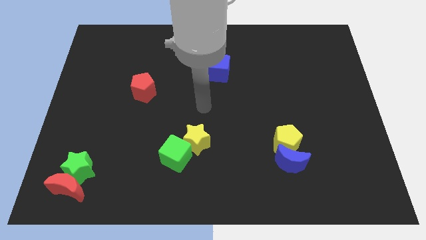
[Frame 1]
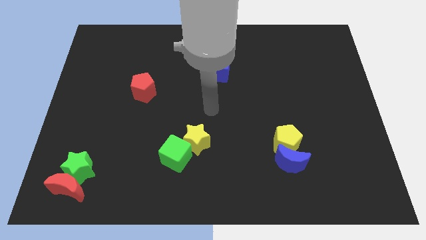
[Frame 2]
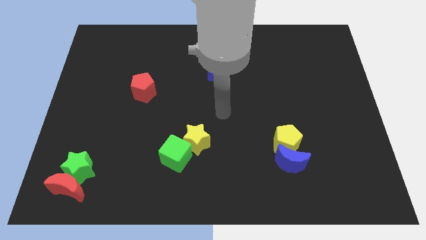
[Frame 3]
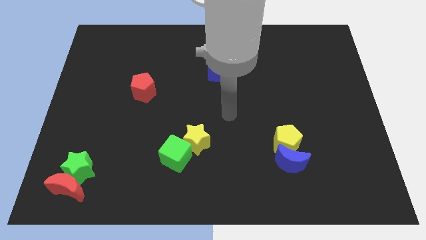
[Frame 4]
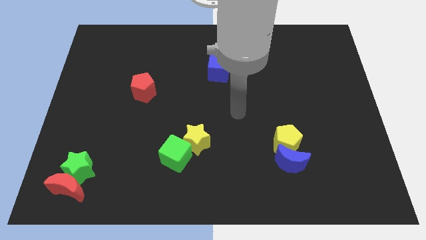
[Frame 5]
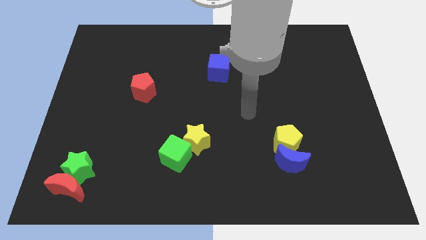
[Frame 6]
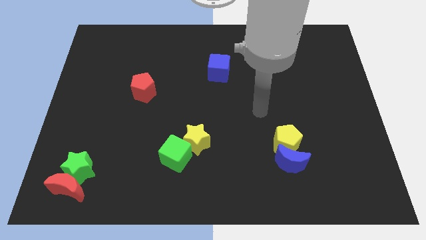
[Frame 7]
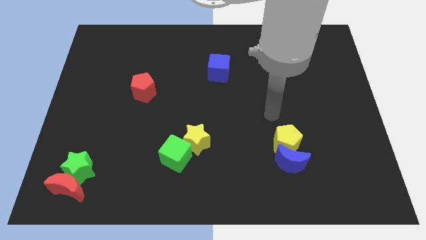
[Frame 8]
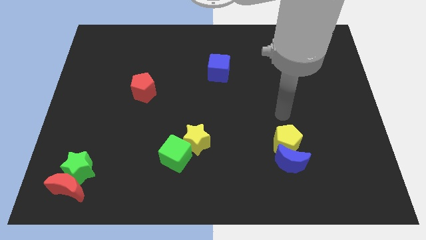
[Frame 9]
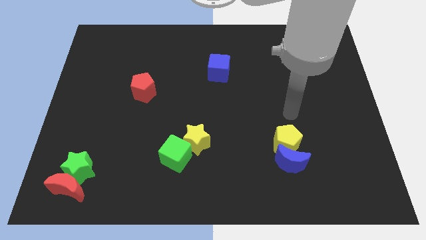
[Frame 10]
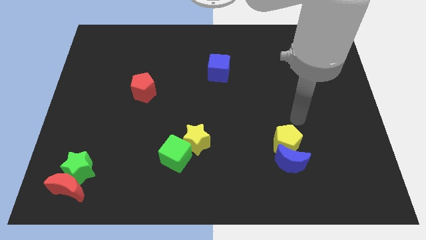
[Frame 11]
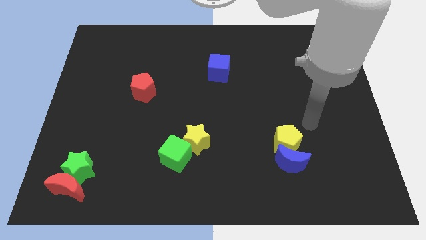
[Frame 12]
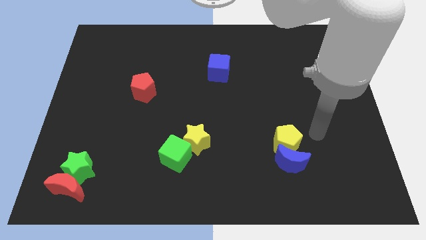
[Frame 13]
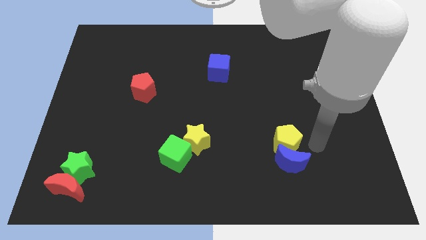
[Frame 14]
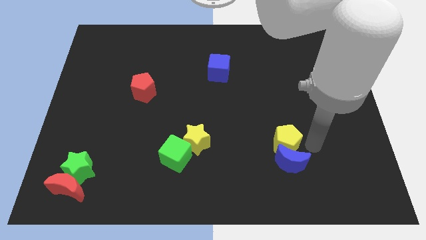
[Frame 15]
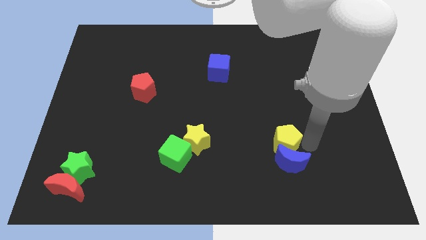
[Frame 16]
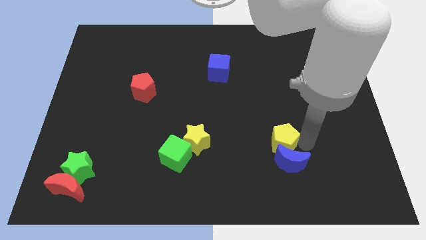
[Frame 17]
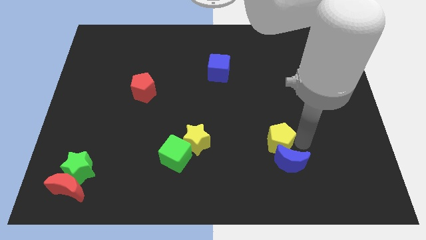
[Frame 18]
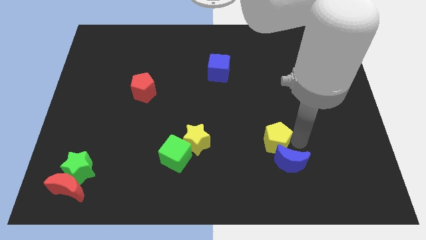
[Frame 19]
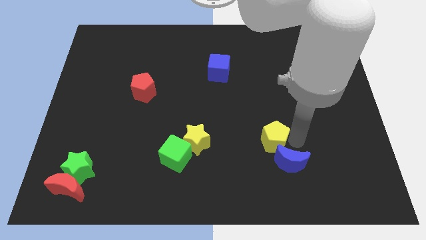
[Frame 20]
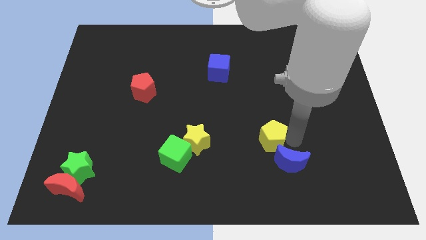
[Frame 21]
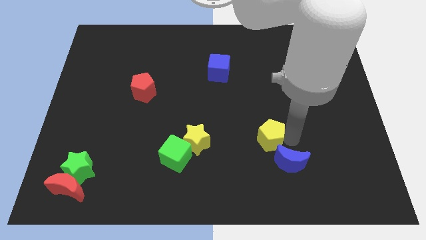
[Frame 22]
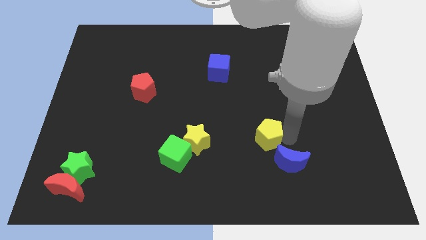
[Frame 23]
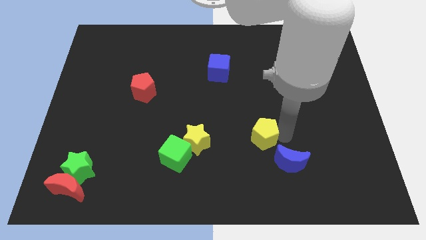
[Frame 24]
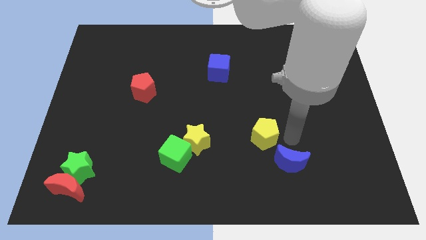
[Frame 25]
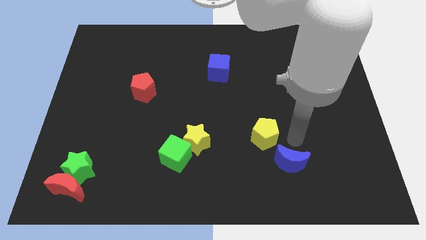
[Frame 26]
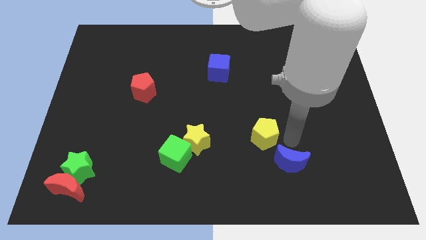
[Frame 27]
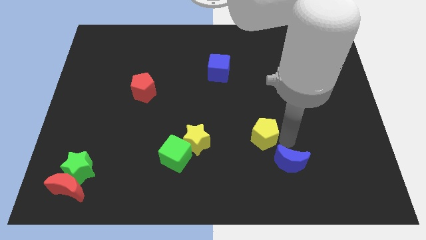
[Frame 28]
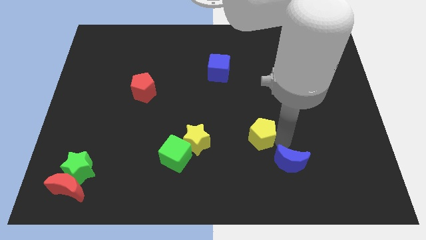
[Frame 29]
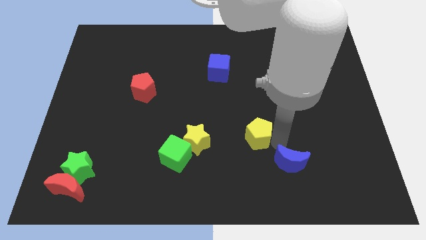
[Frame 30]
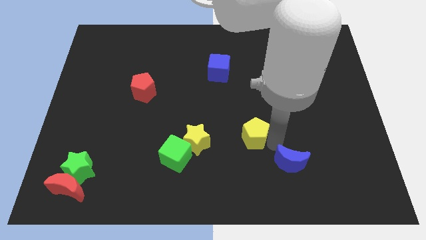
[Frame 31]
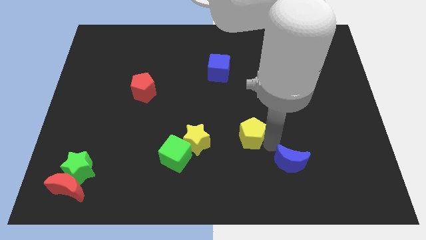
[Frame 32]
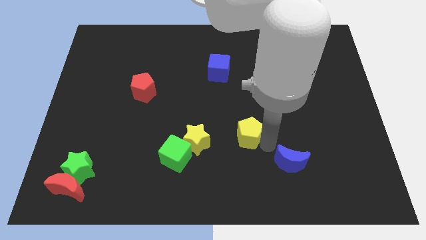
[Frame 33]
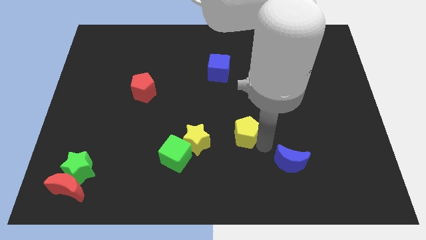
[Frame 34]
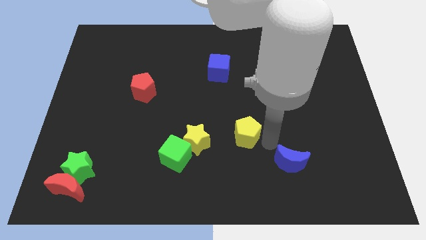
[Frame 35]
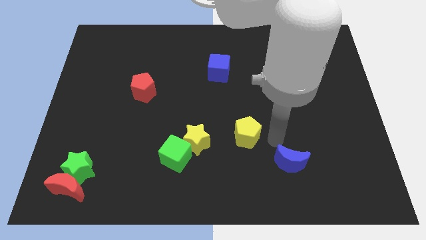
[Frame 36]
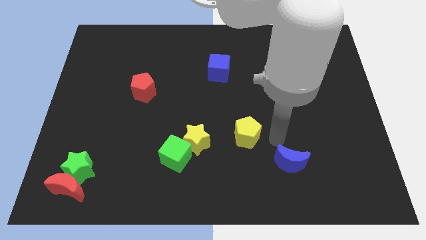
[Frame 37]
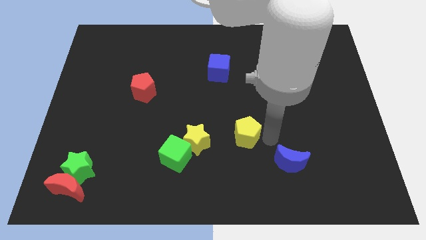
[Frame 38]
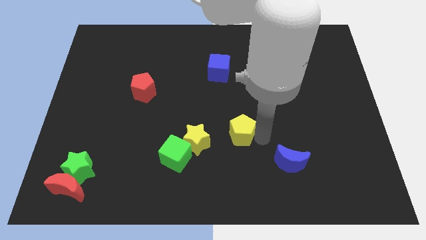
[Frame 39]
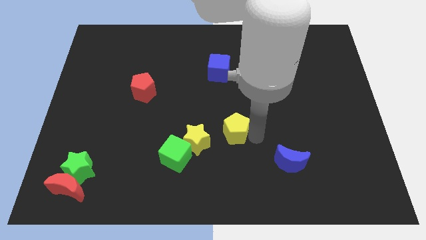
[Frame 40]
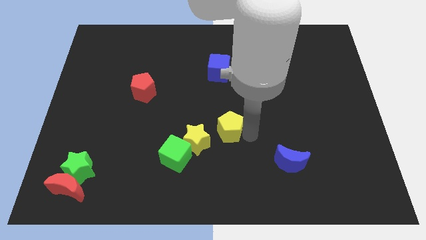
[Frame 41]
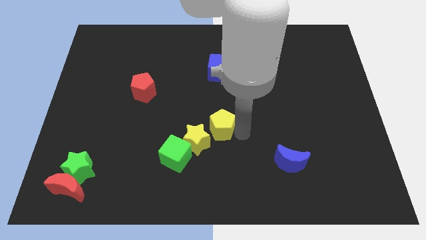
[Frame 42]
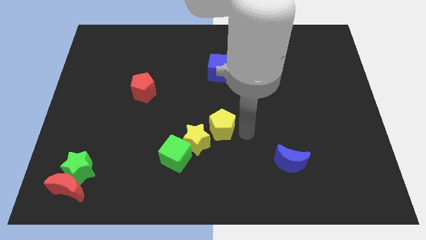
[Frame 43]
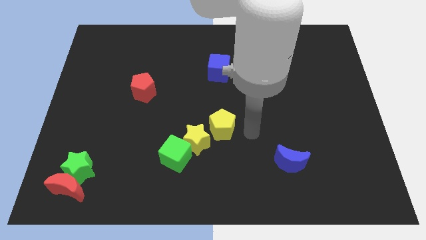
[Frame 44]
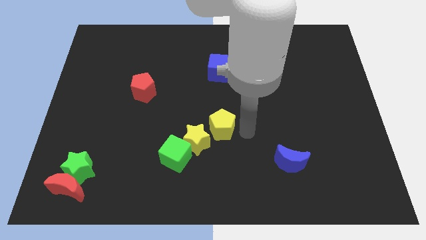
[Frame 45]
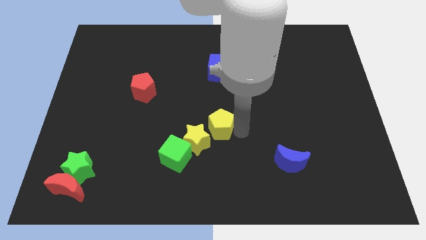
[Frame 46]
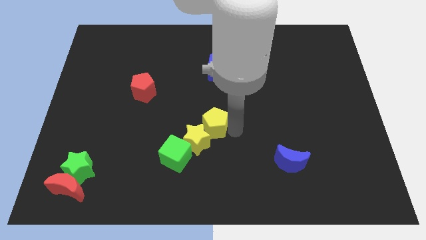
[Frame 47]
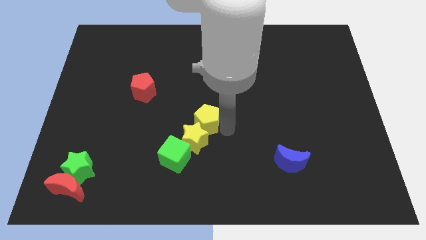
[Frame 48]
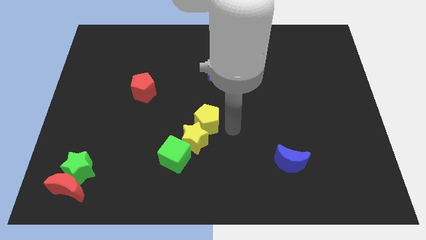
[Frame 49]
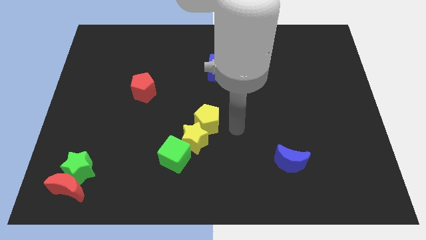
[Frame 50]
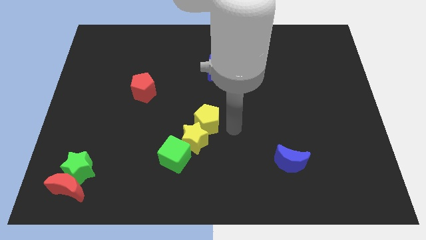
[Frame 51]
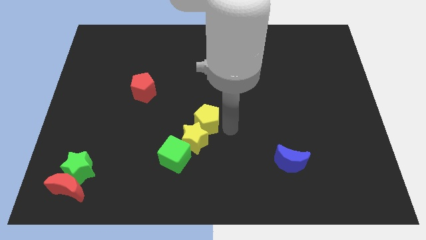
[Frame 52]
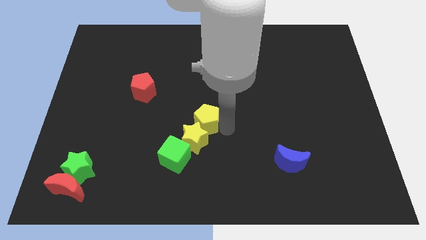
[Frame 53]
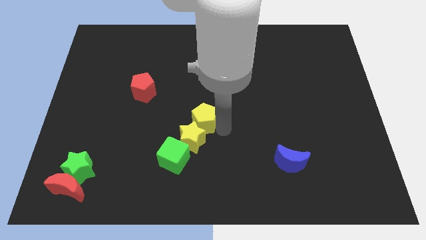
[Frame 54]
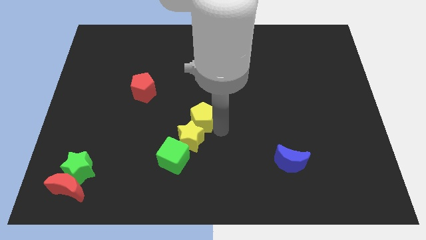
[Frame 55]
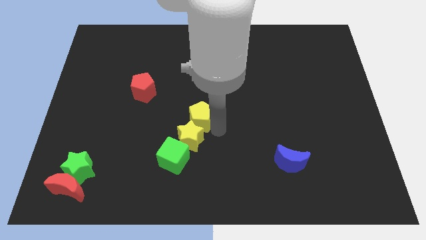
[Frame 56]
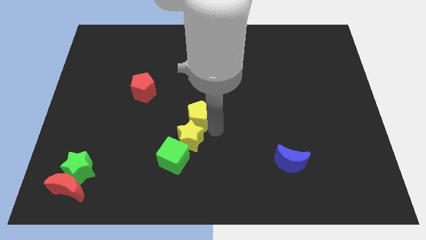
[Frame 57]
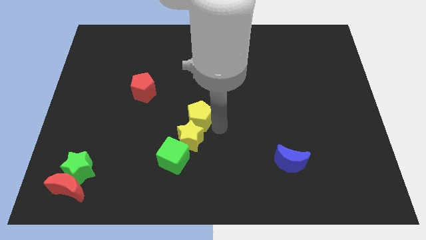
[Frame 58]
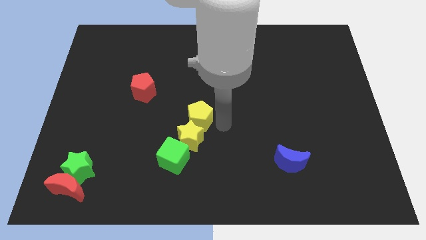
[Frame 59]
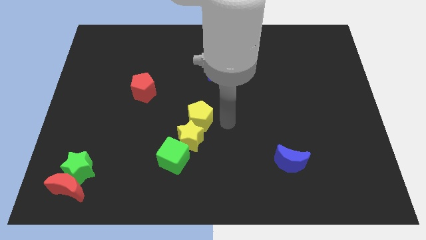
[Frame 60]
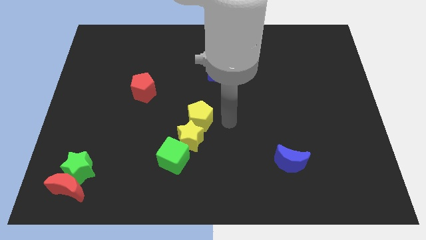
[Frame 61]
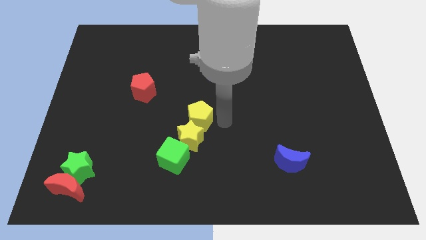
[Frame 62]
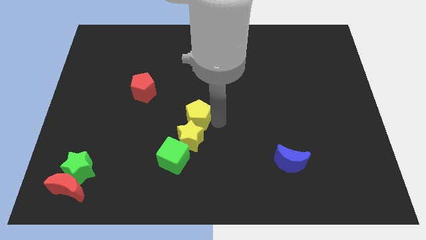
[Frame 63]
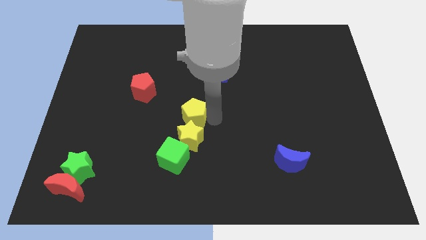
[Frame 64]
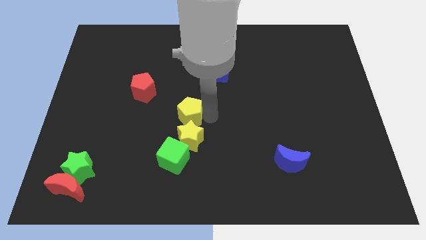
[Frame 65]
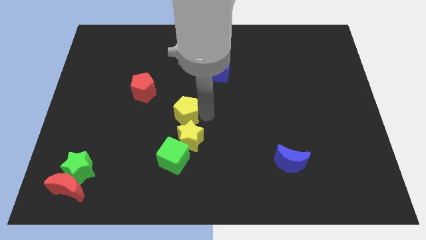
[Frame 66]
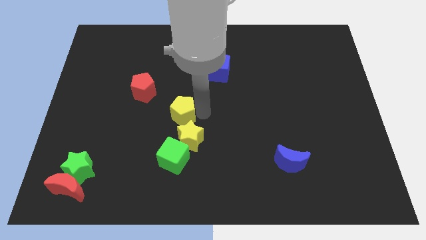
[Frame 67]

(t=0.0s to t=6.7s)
move the yellow pentagon left

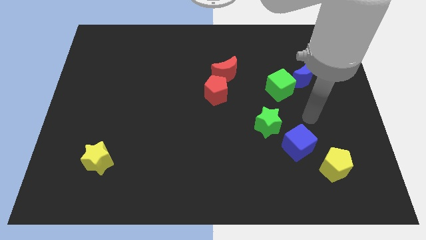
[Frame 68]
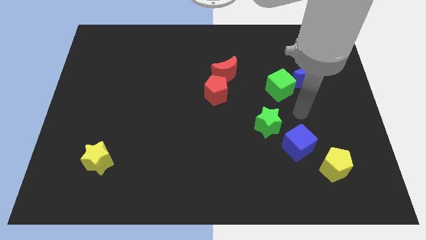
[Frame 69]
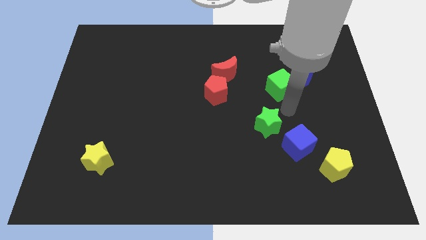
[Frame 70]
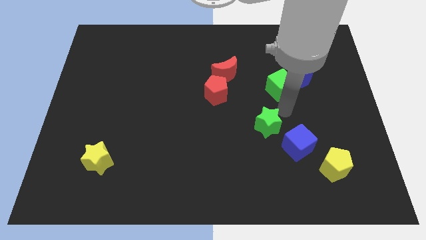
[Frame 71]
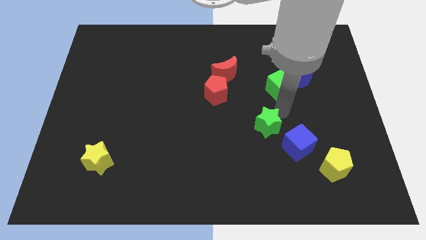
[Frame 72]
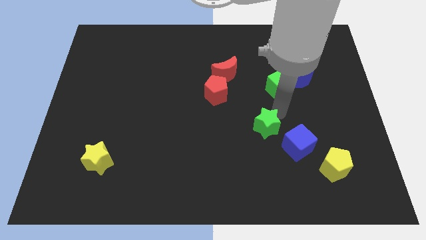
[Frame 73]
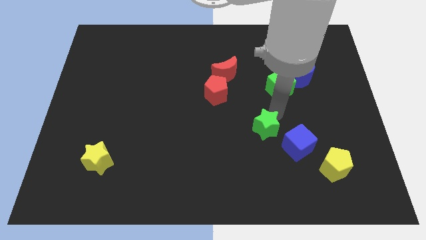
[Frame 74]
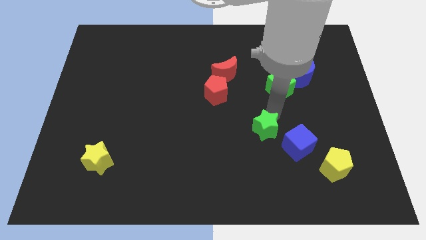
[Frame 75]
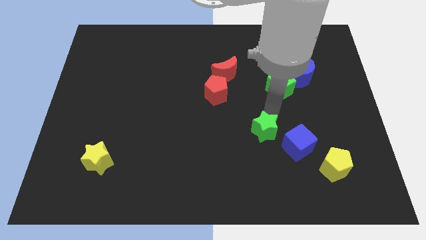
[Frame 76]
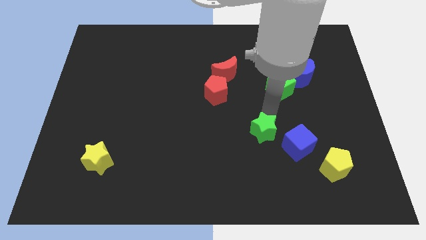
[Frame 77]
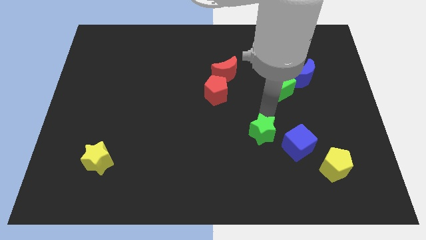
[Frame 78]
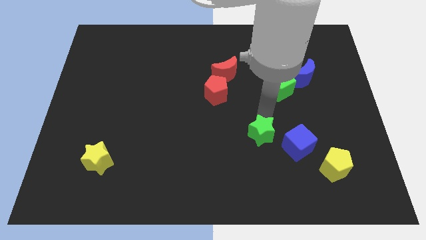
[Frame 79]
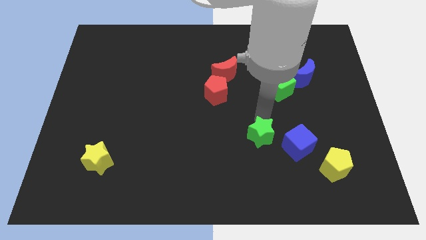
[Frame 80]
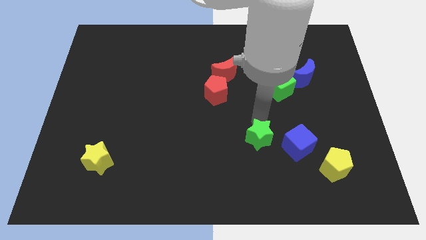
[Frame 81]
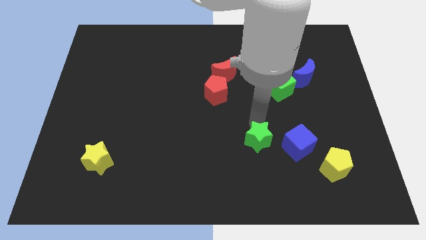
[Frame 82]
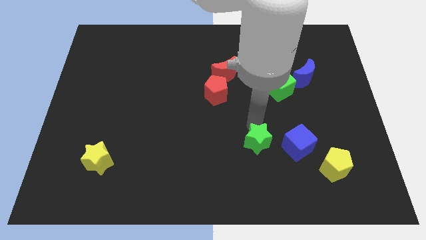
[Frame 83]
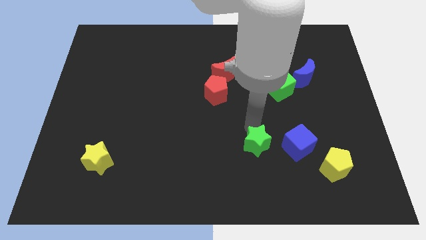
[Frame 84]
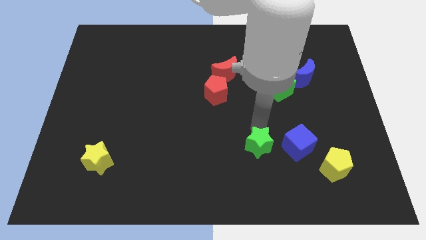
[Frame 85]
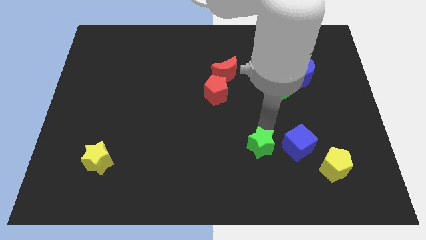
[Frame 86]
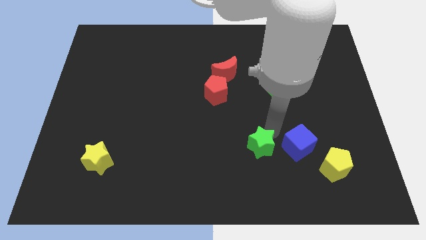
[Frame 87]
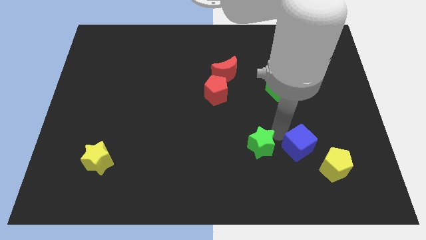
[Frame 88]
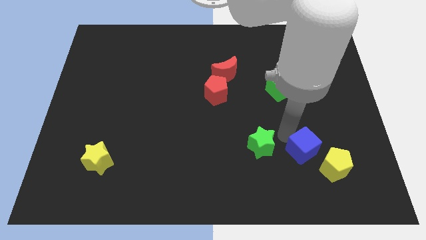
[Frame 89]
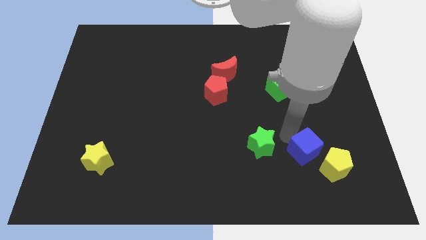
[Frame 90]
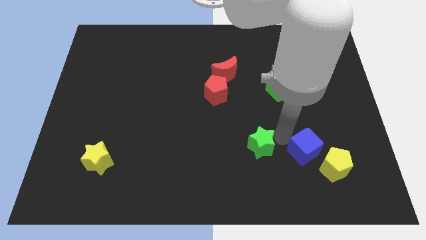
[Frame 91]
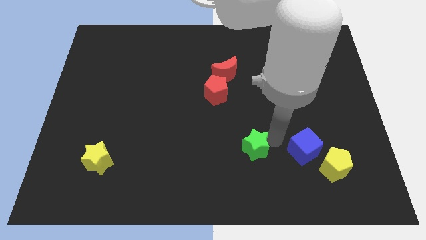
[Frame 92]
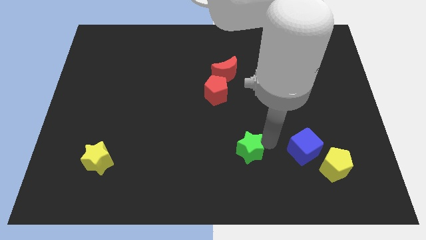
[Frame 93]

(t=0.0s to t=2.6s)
slightly push the green star downwards and then to the left
